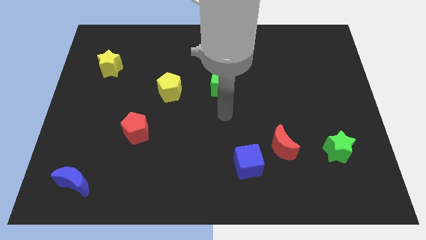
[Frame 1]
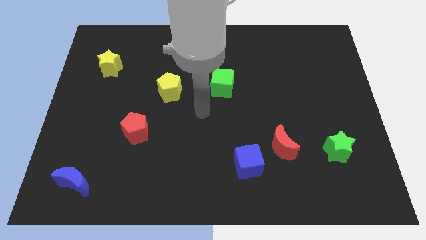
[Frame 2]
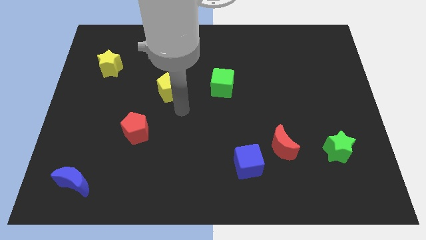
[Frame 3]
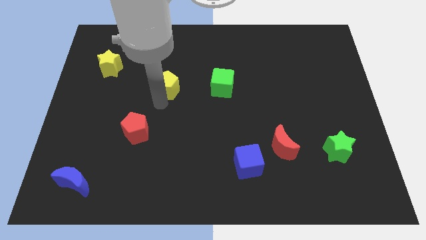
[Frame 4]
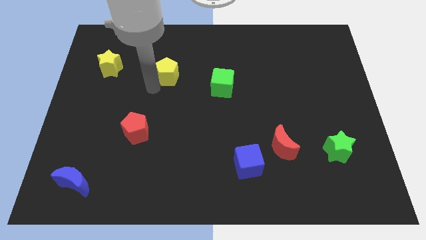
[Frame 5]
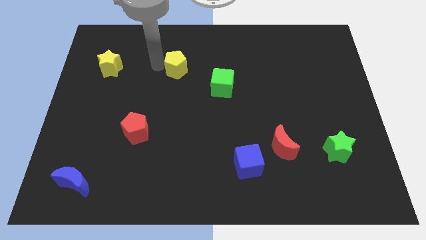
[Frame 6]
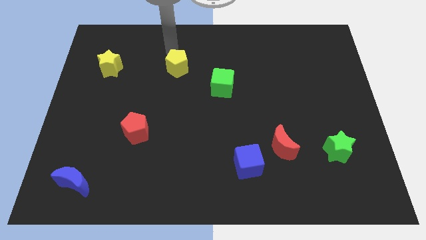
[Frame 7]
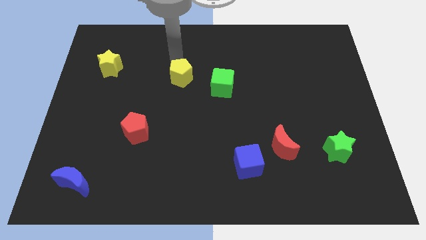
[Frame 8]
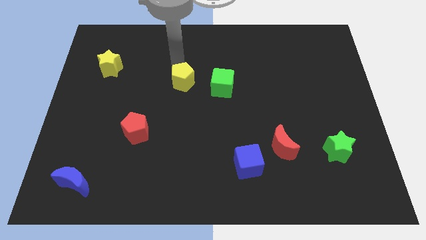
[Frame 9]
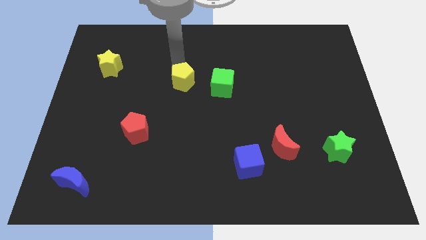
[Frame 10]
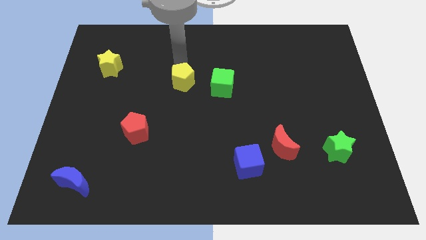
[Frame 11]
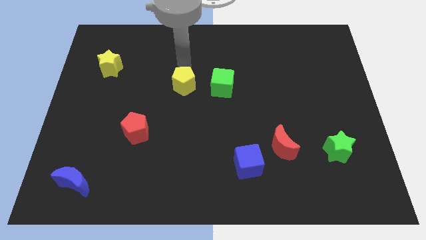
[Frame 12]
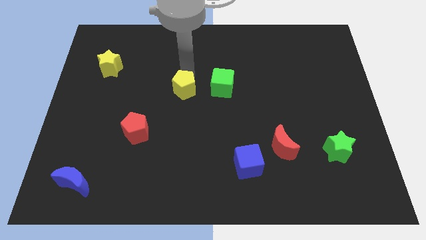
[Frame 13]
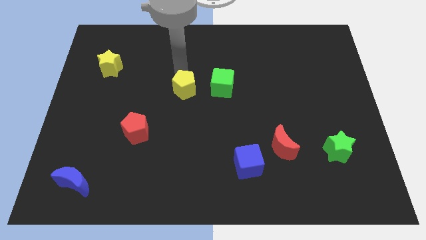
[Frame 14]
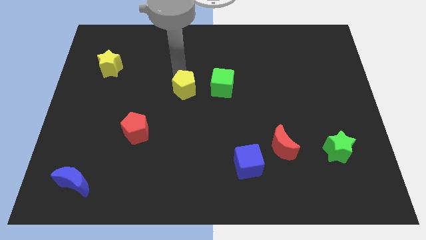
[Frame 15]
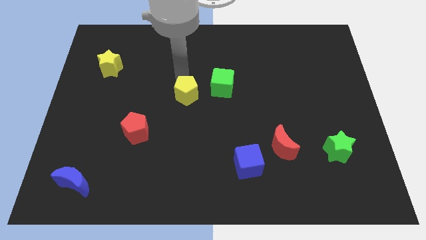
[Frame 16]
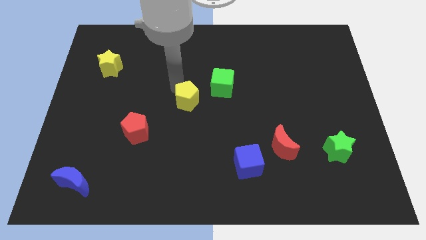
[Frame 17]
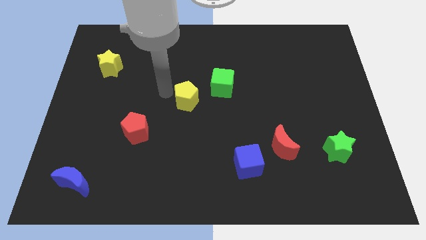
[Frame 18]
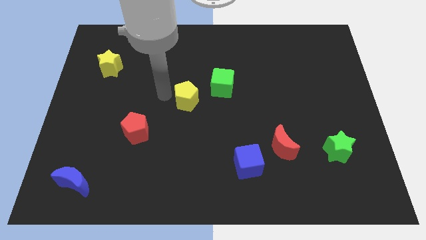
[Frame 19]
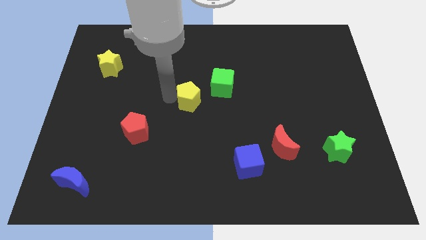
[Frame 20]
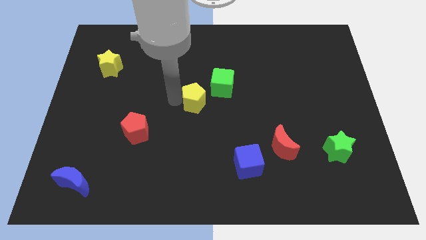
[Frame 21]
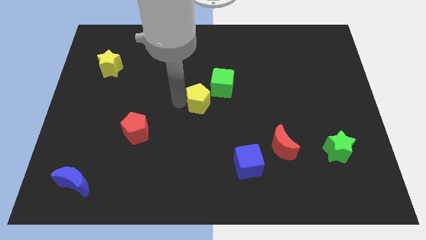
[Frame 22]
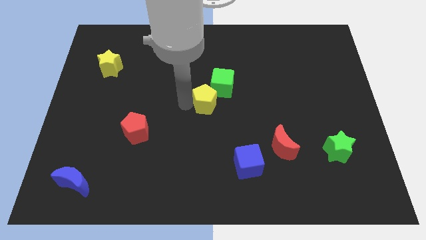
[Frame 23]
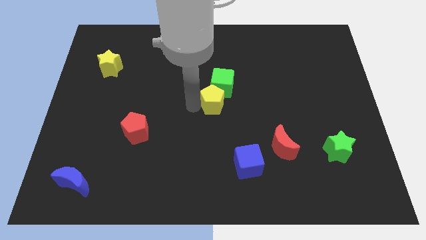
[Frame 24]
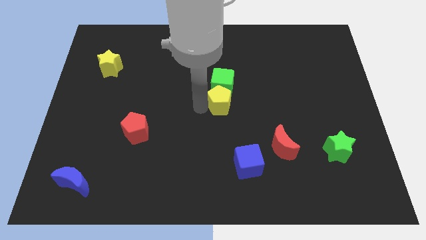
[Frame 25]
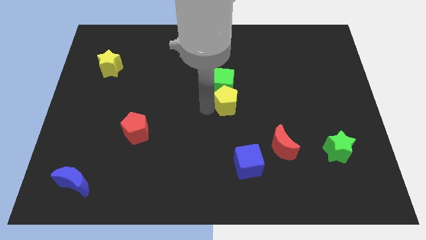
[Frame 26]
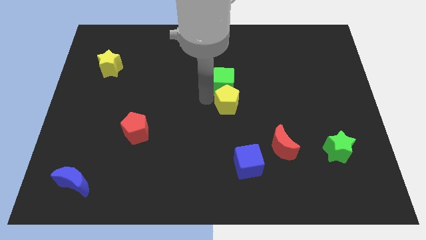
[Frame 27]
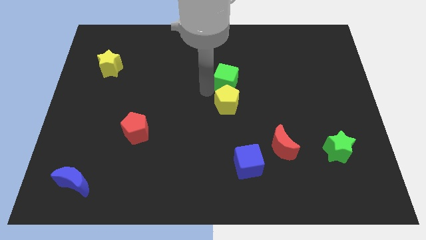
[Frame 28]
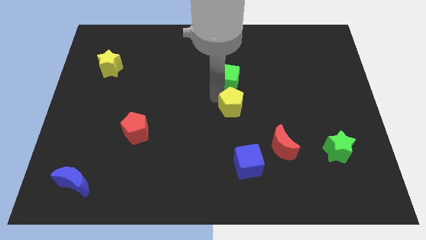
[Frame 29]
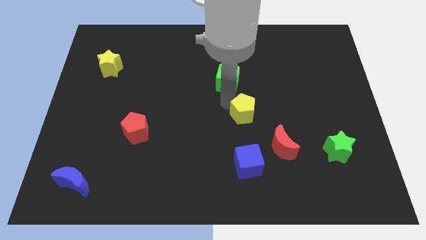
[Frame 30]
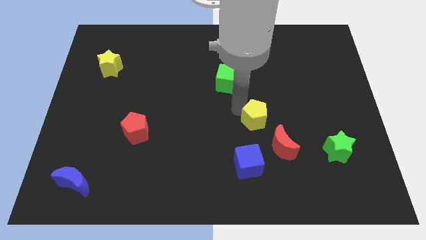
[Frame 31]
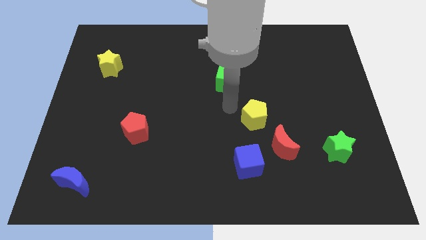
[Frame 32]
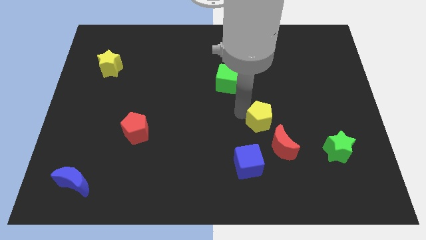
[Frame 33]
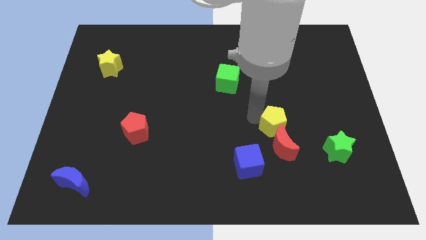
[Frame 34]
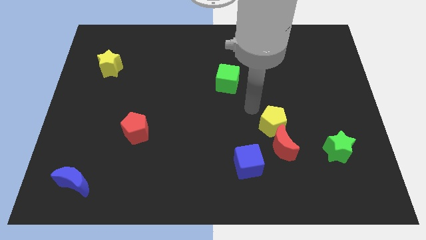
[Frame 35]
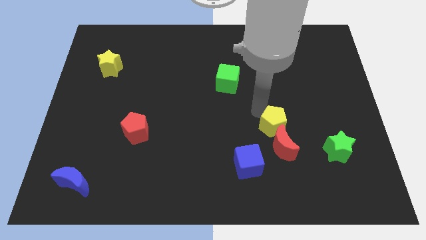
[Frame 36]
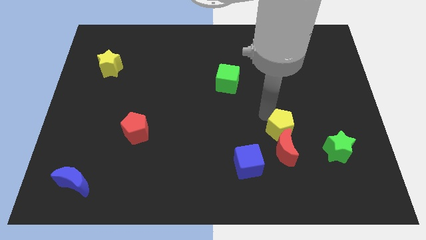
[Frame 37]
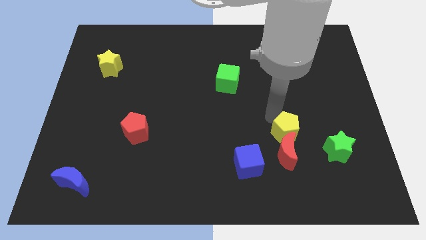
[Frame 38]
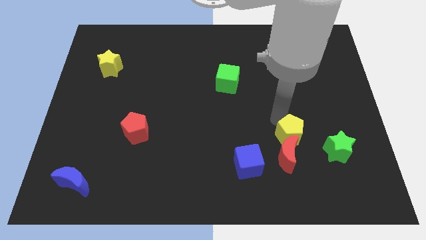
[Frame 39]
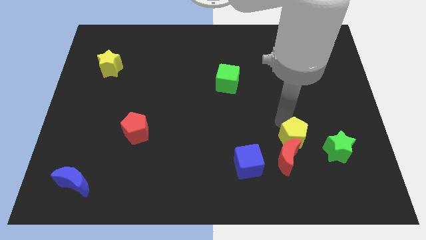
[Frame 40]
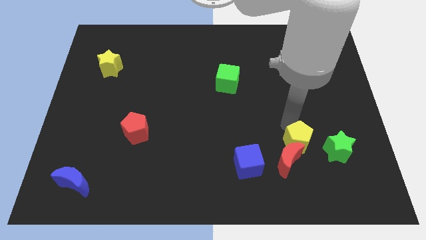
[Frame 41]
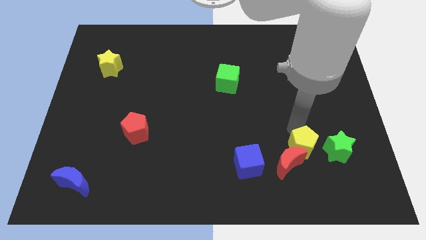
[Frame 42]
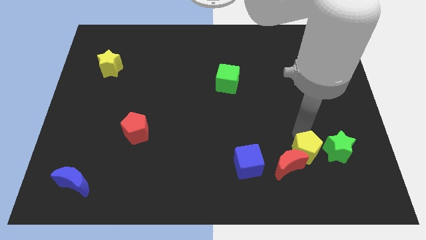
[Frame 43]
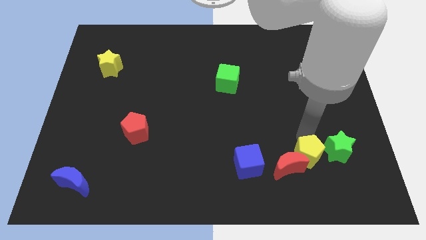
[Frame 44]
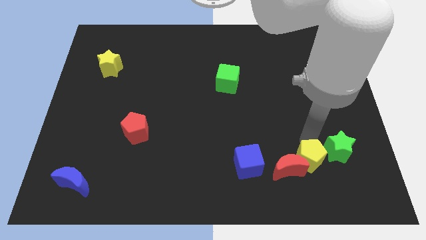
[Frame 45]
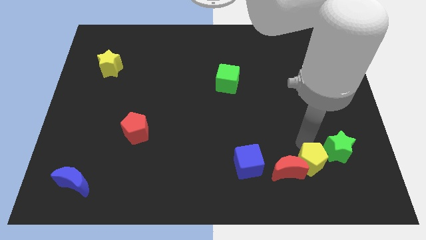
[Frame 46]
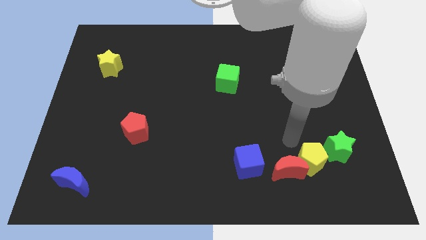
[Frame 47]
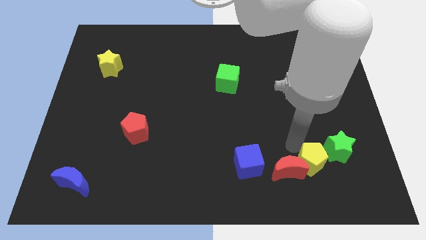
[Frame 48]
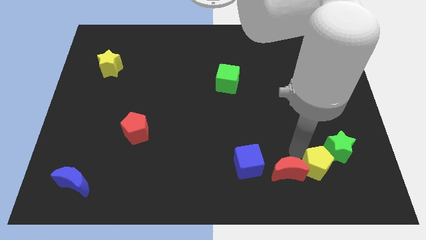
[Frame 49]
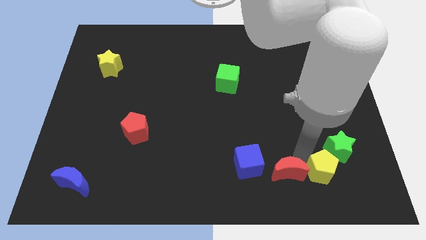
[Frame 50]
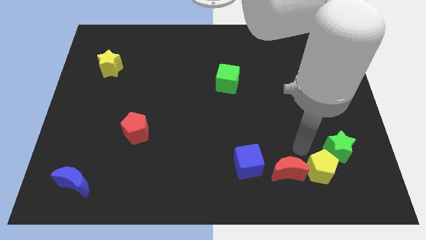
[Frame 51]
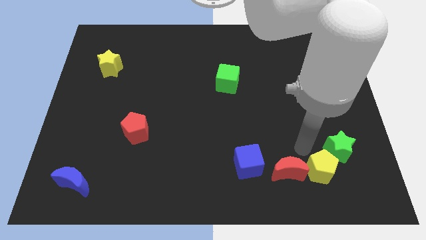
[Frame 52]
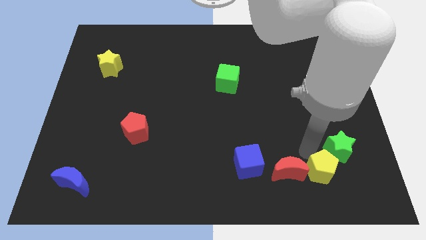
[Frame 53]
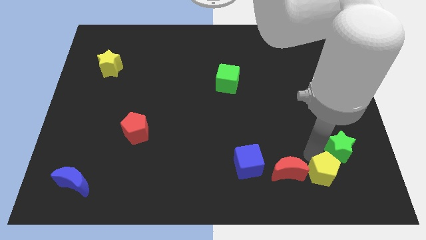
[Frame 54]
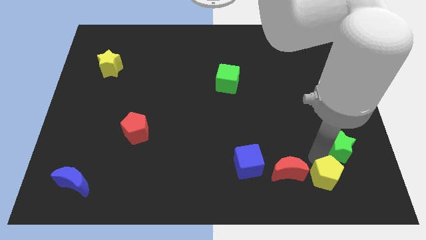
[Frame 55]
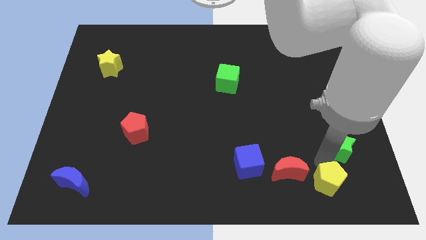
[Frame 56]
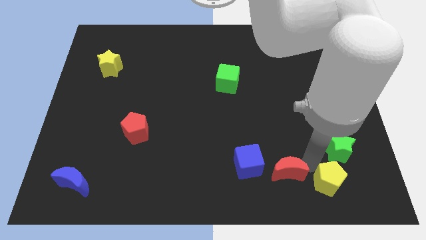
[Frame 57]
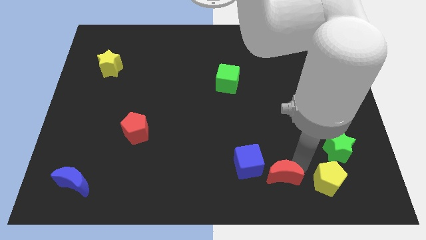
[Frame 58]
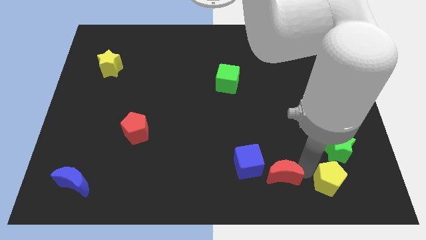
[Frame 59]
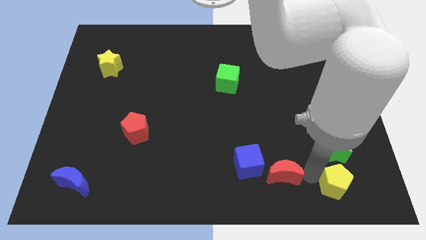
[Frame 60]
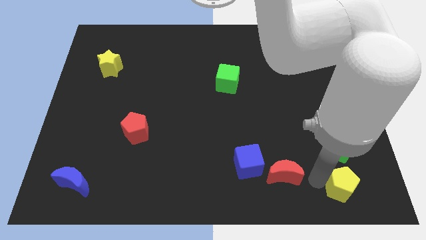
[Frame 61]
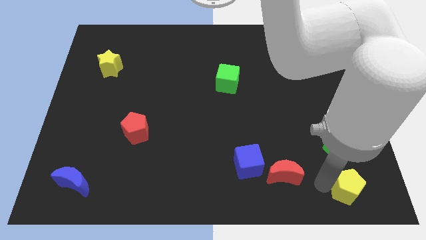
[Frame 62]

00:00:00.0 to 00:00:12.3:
put the yellow pentagon to the bottom right corner
